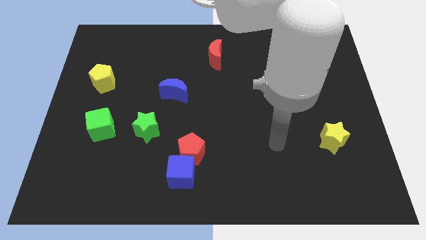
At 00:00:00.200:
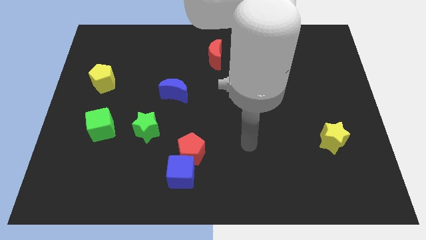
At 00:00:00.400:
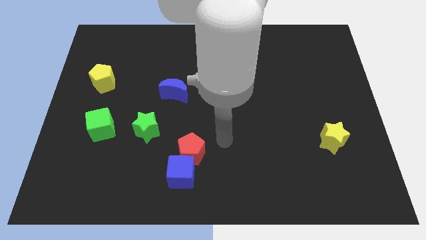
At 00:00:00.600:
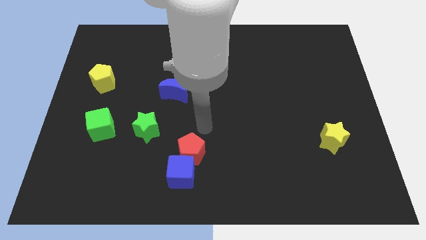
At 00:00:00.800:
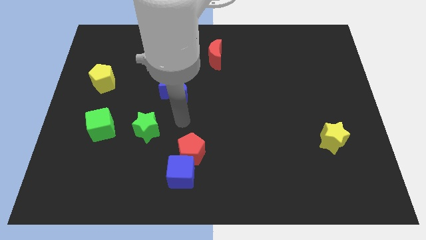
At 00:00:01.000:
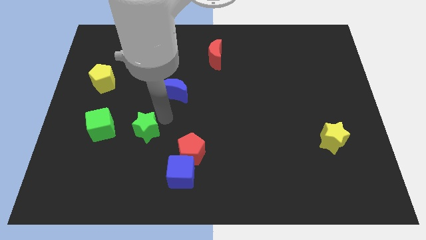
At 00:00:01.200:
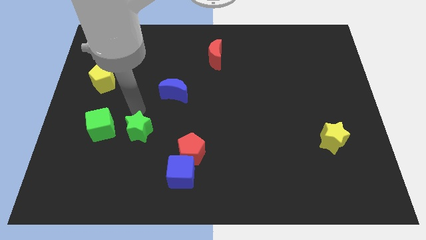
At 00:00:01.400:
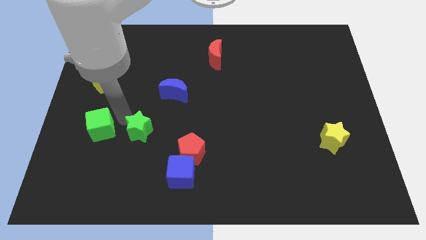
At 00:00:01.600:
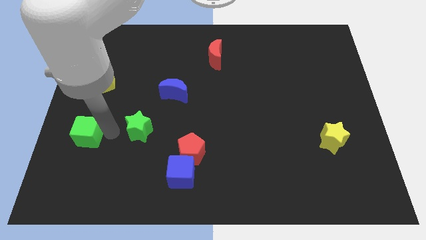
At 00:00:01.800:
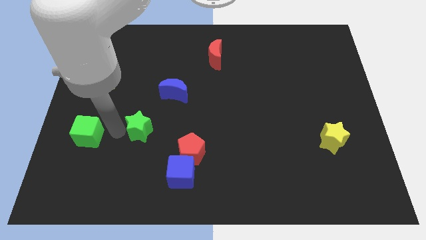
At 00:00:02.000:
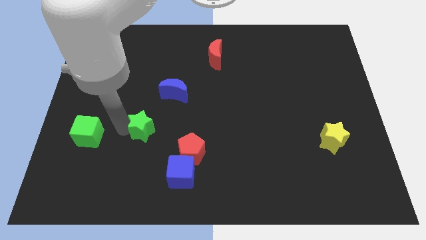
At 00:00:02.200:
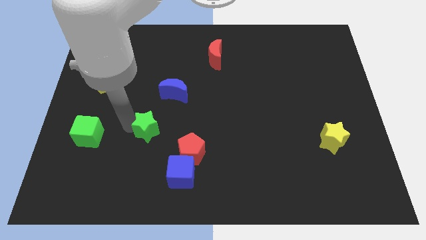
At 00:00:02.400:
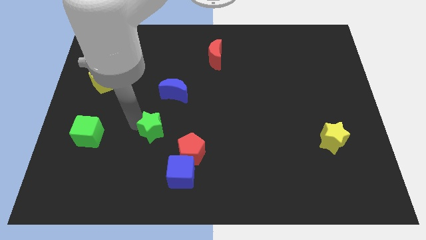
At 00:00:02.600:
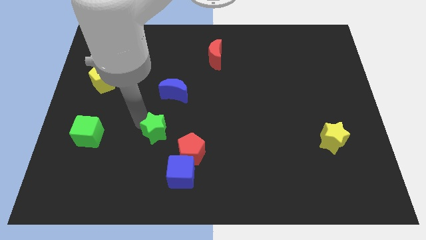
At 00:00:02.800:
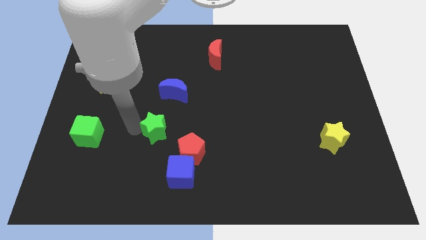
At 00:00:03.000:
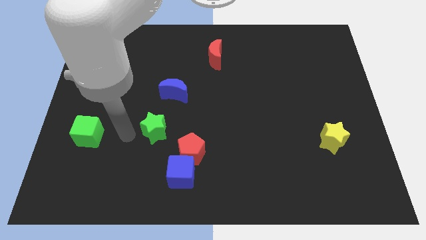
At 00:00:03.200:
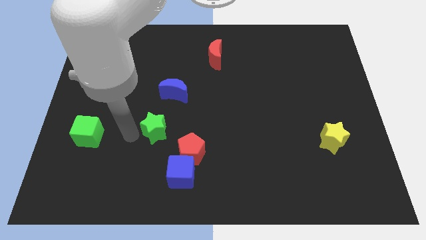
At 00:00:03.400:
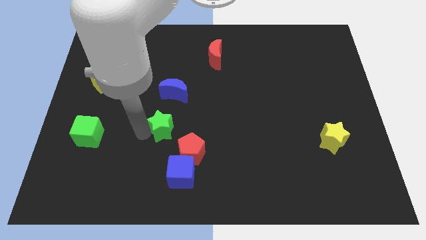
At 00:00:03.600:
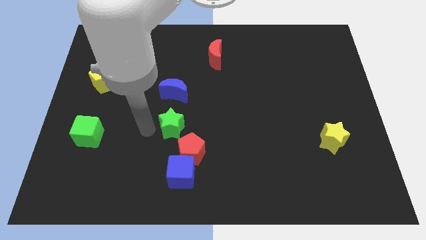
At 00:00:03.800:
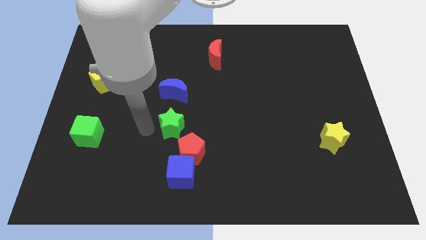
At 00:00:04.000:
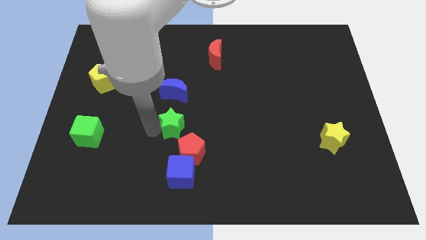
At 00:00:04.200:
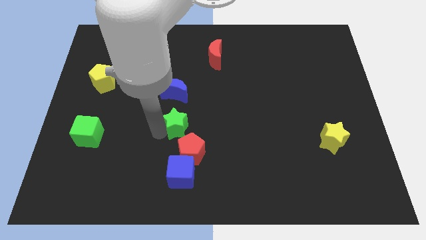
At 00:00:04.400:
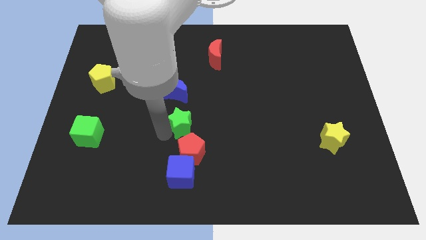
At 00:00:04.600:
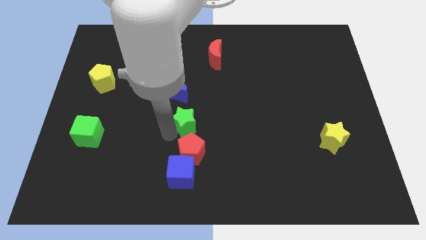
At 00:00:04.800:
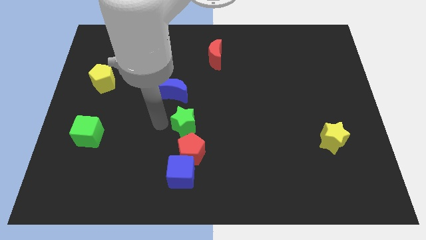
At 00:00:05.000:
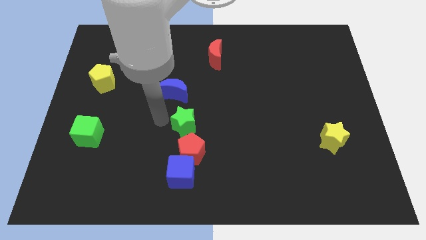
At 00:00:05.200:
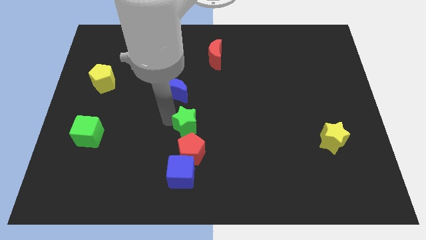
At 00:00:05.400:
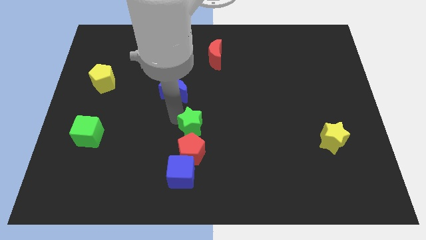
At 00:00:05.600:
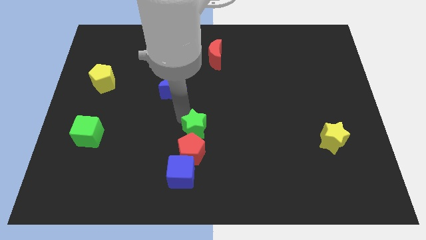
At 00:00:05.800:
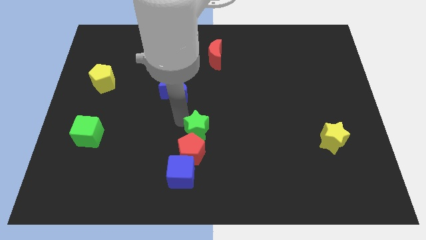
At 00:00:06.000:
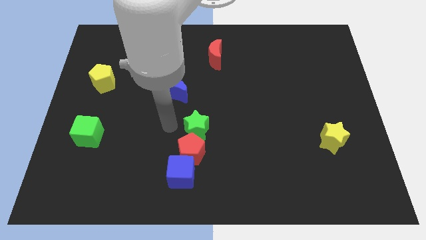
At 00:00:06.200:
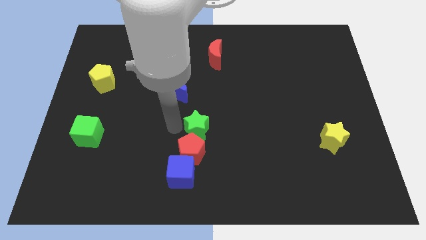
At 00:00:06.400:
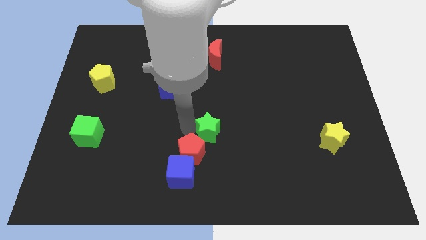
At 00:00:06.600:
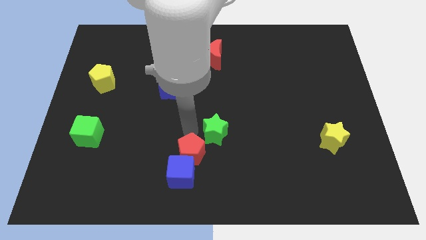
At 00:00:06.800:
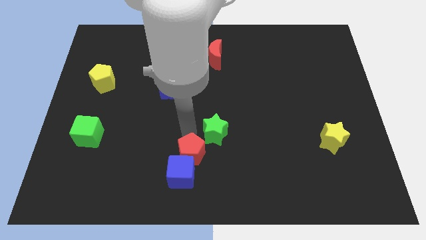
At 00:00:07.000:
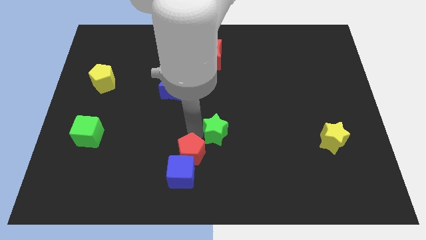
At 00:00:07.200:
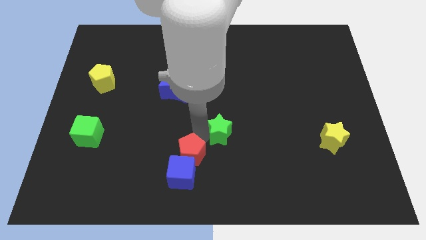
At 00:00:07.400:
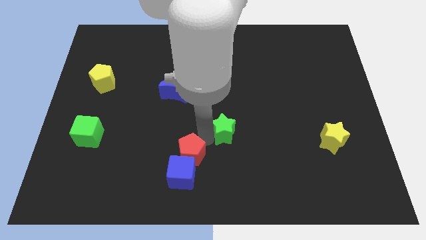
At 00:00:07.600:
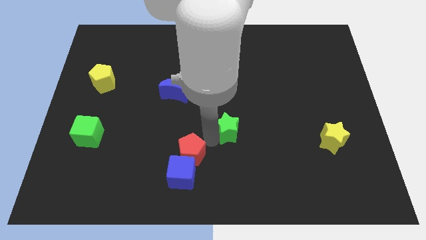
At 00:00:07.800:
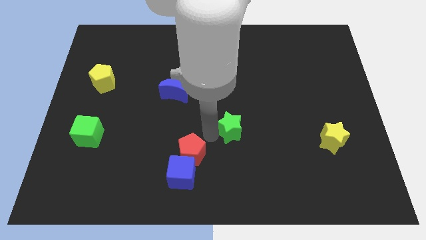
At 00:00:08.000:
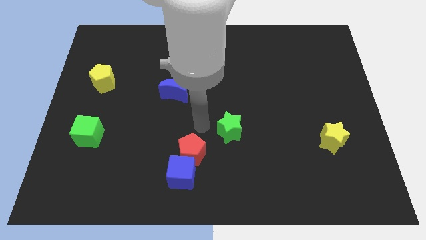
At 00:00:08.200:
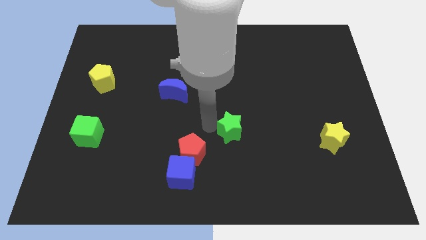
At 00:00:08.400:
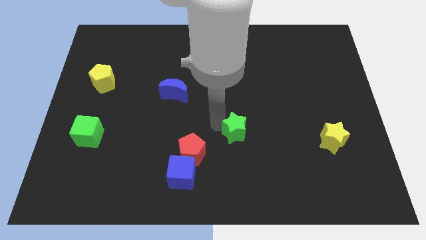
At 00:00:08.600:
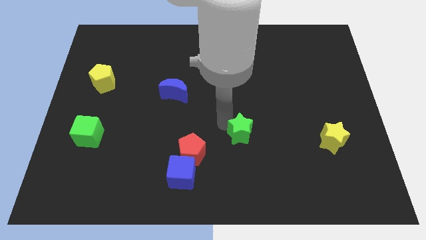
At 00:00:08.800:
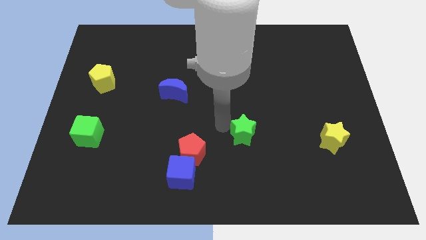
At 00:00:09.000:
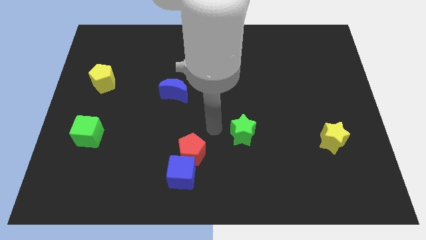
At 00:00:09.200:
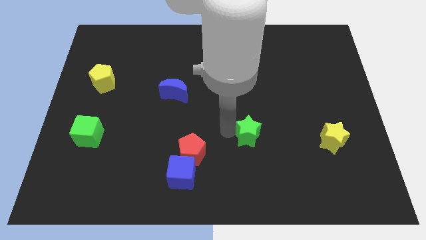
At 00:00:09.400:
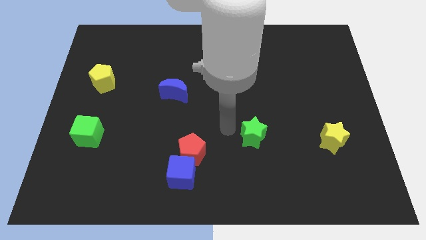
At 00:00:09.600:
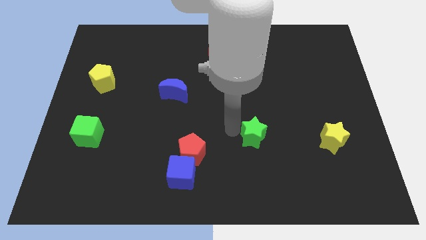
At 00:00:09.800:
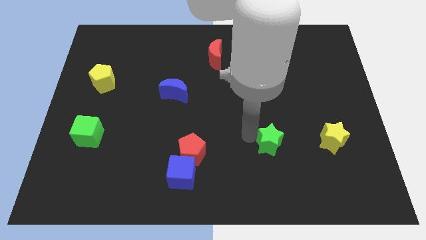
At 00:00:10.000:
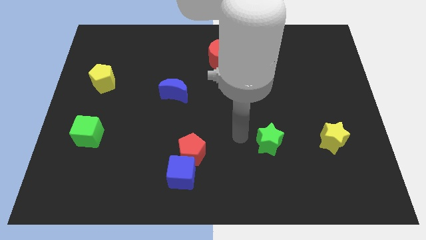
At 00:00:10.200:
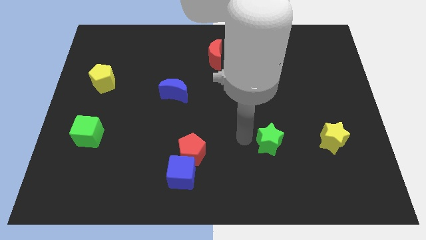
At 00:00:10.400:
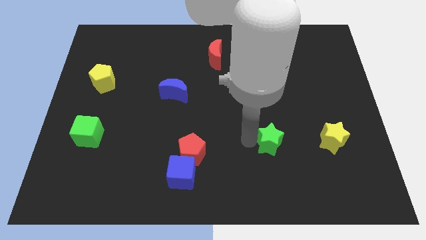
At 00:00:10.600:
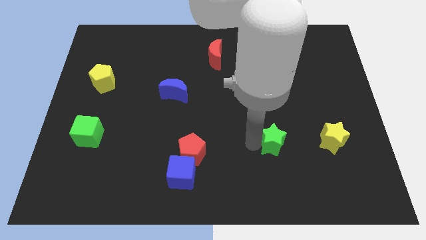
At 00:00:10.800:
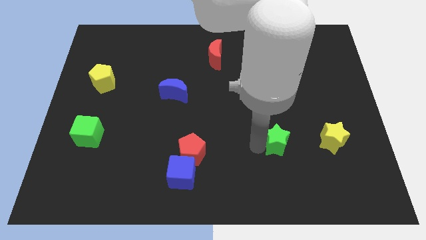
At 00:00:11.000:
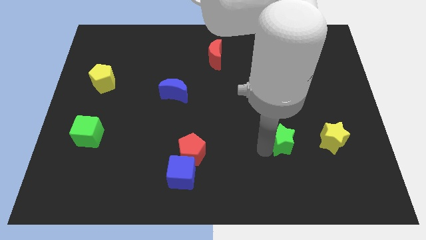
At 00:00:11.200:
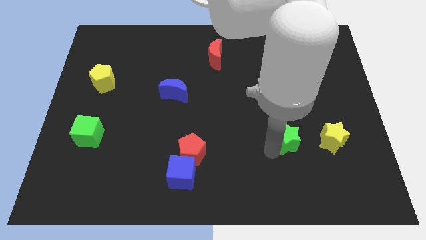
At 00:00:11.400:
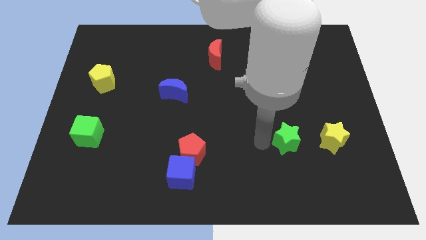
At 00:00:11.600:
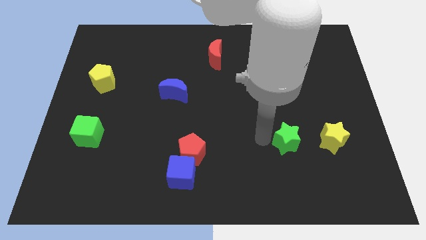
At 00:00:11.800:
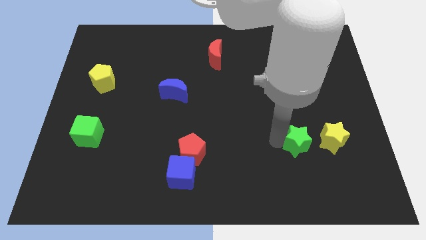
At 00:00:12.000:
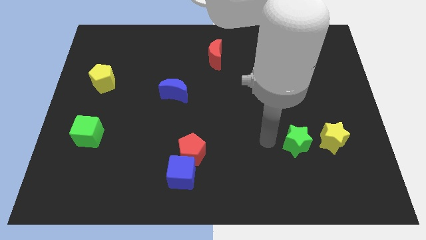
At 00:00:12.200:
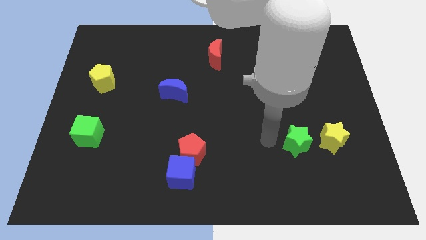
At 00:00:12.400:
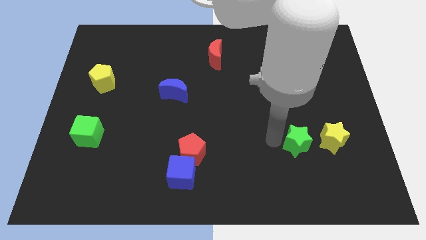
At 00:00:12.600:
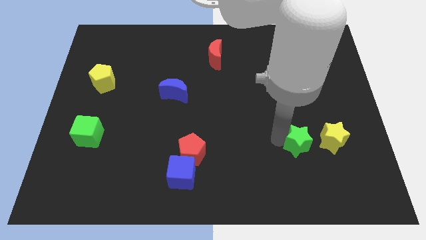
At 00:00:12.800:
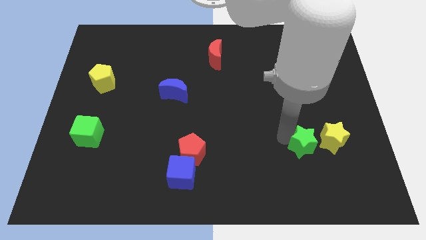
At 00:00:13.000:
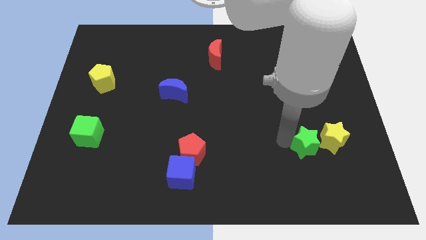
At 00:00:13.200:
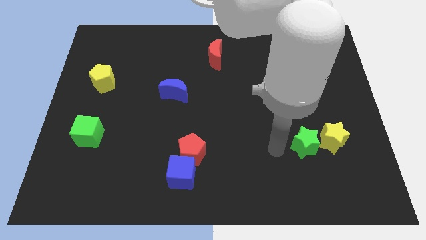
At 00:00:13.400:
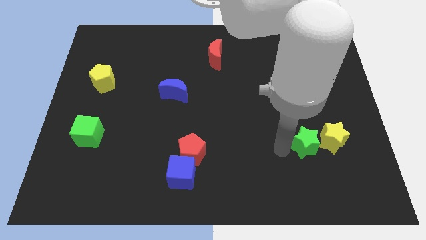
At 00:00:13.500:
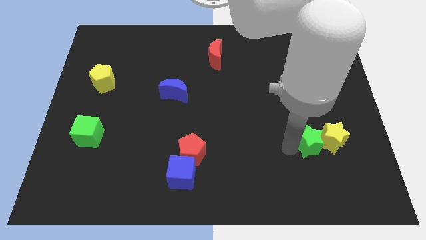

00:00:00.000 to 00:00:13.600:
move the green star to the yellow star
